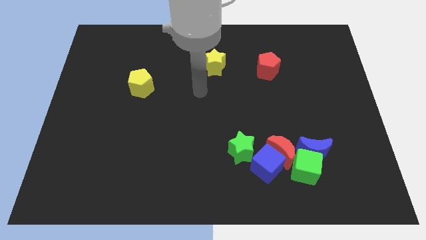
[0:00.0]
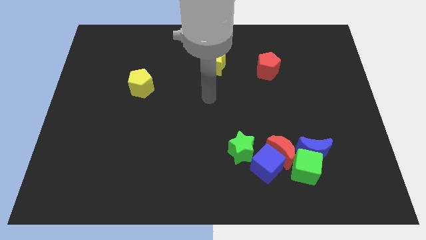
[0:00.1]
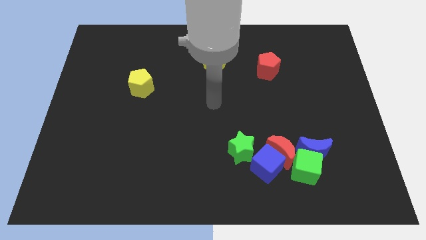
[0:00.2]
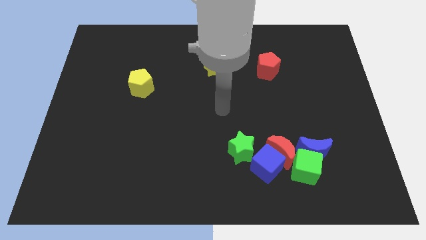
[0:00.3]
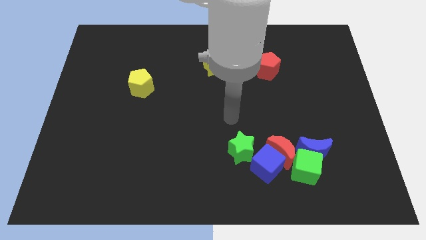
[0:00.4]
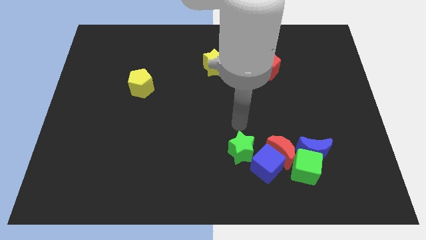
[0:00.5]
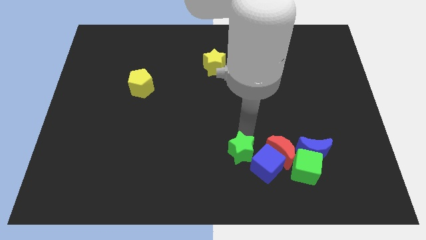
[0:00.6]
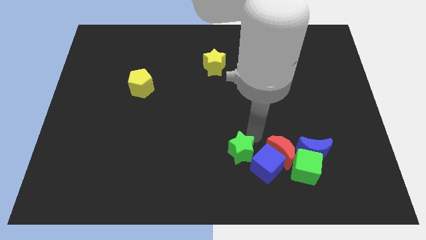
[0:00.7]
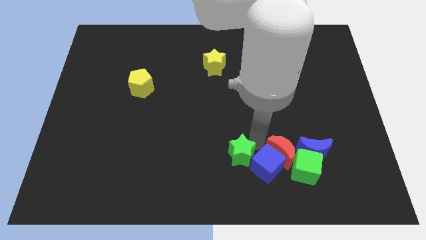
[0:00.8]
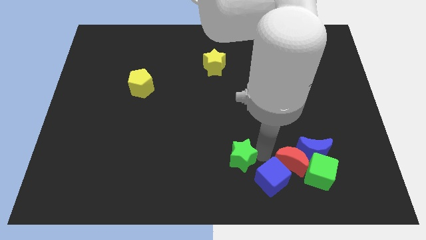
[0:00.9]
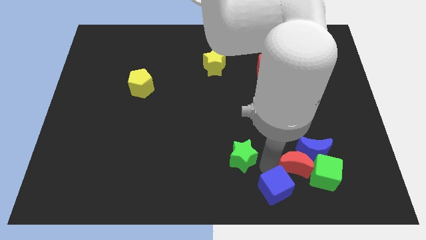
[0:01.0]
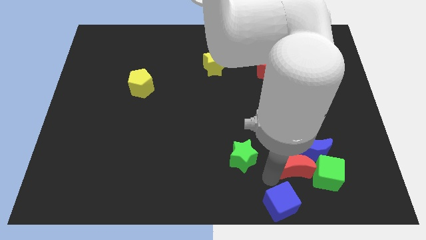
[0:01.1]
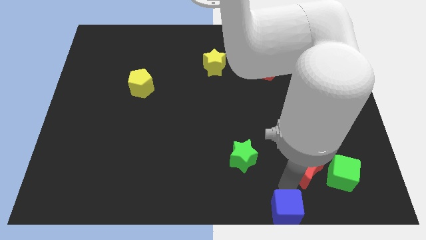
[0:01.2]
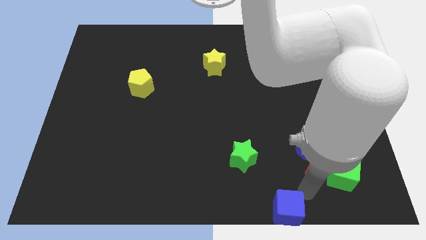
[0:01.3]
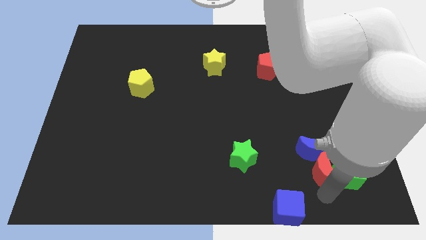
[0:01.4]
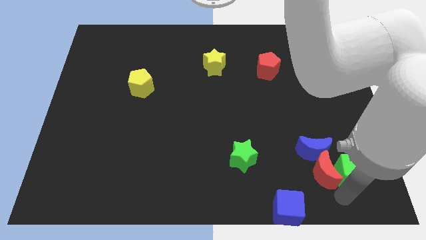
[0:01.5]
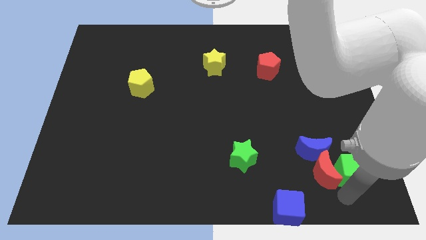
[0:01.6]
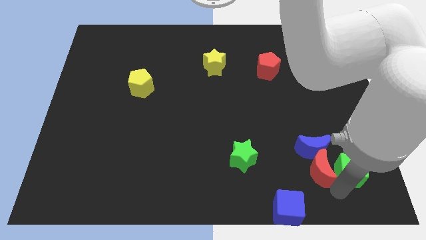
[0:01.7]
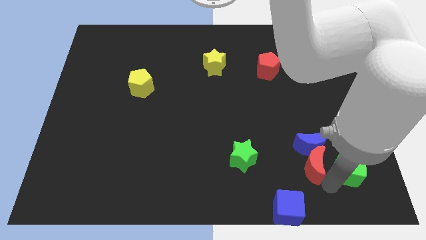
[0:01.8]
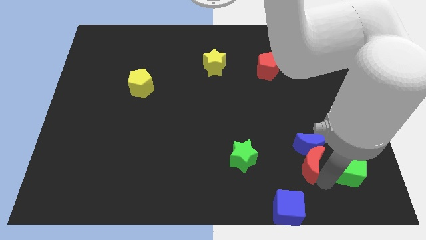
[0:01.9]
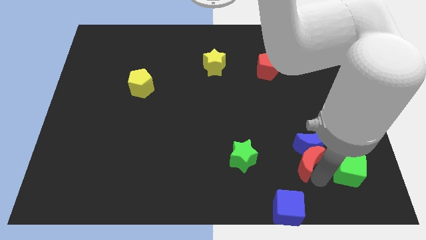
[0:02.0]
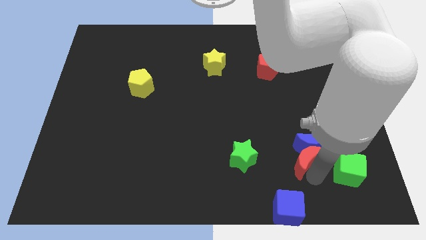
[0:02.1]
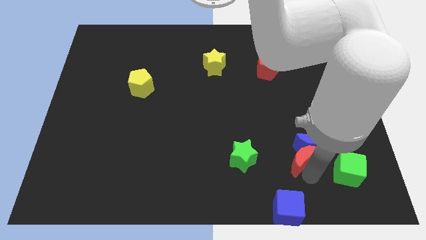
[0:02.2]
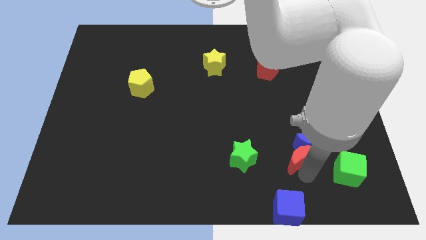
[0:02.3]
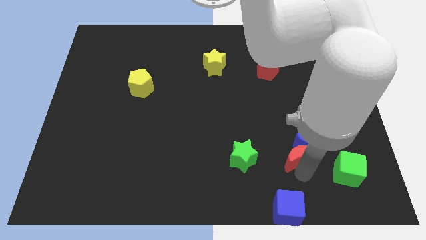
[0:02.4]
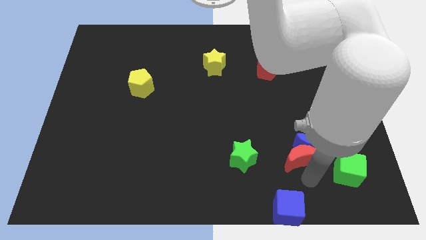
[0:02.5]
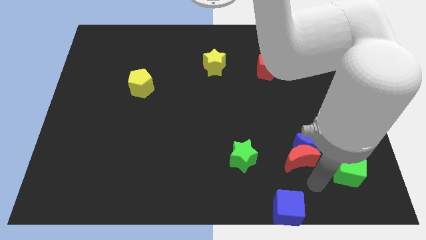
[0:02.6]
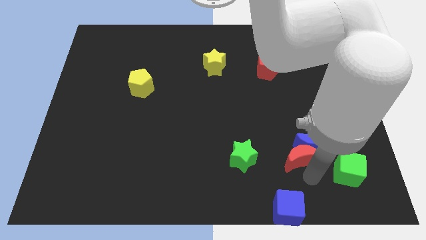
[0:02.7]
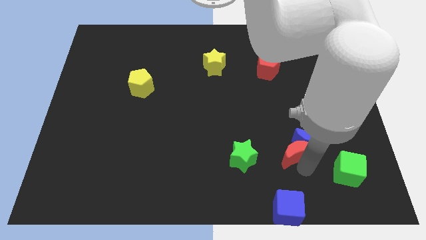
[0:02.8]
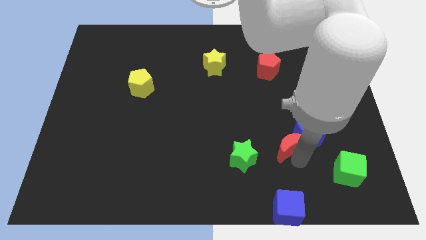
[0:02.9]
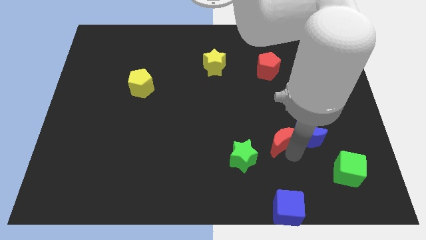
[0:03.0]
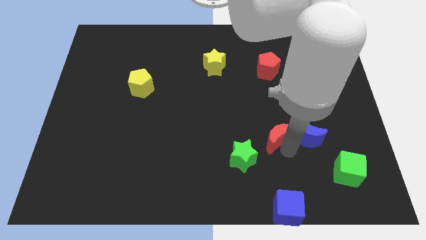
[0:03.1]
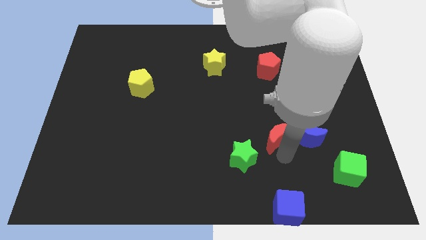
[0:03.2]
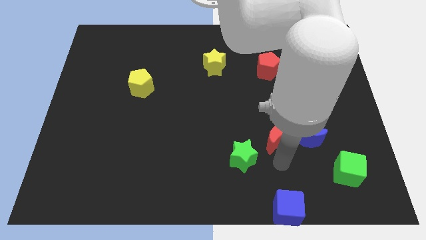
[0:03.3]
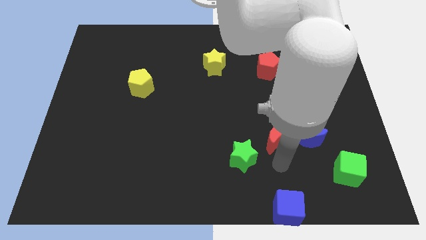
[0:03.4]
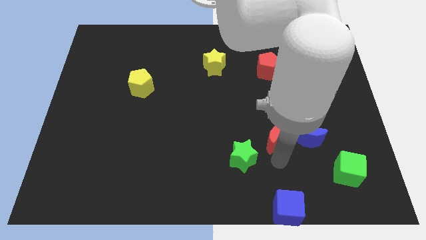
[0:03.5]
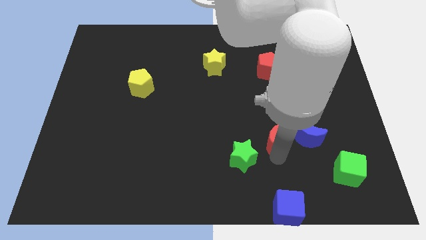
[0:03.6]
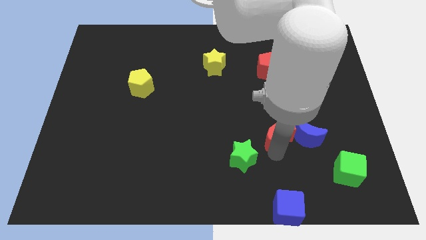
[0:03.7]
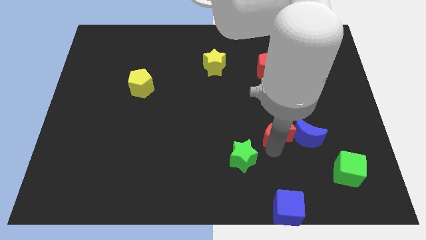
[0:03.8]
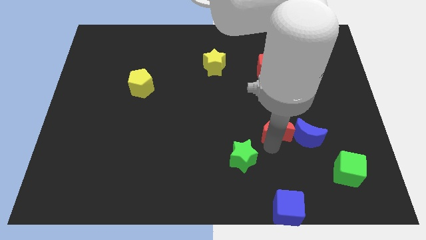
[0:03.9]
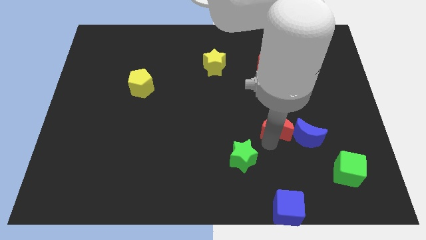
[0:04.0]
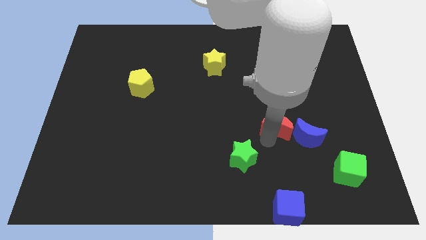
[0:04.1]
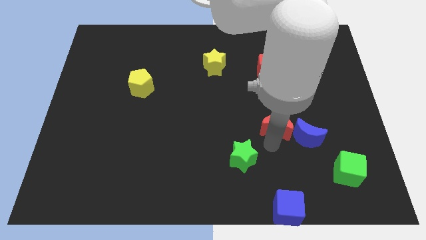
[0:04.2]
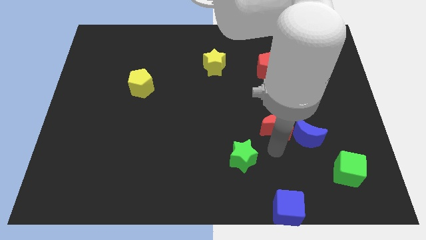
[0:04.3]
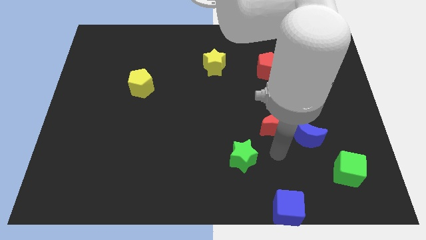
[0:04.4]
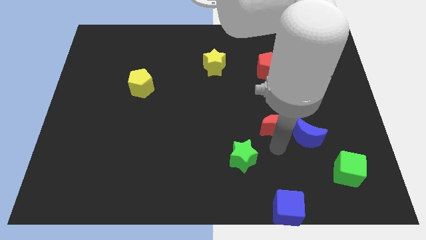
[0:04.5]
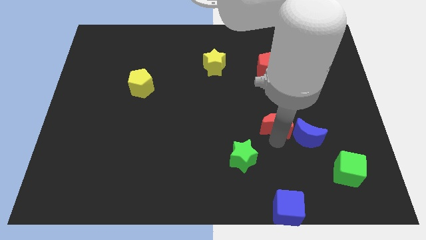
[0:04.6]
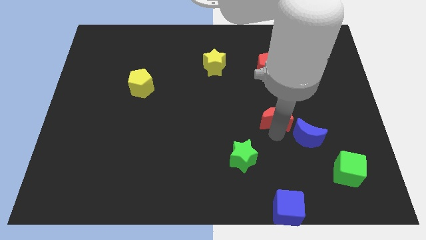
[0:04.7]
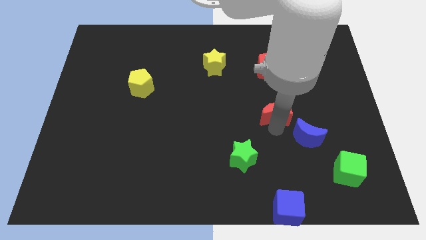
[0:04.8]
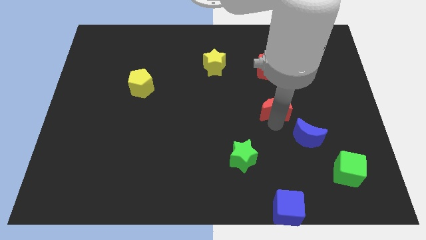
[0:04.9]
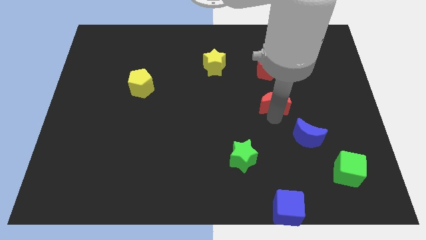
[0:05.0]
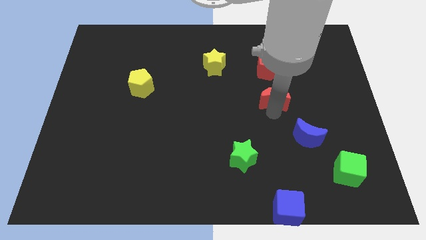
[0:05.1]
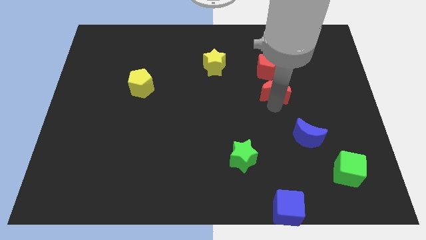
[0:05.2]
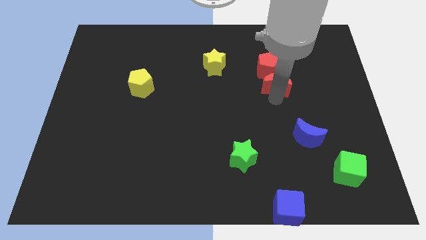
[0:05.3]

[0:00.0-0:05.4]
move the red moon close to the red pentagon

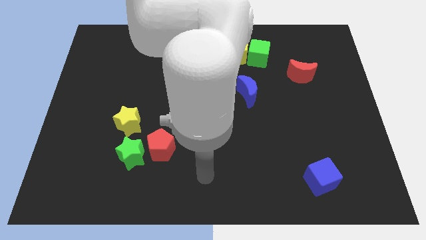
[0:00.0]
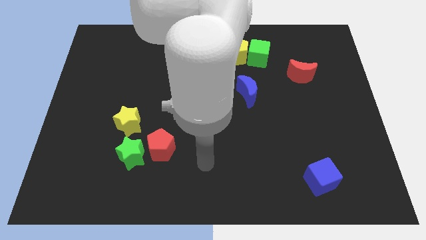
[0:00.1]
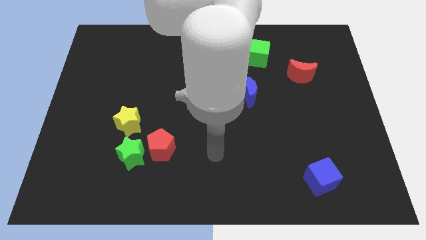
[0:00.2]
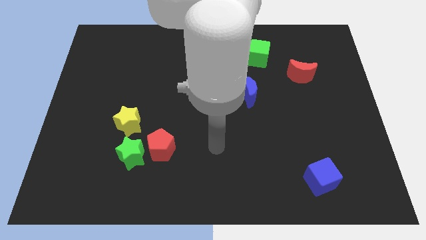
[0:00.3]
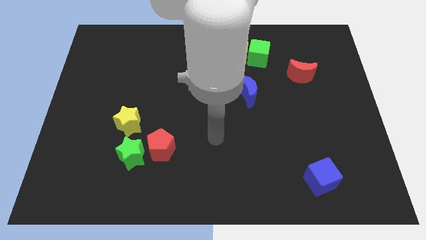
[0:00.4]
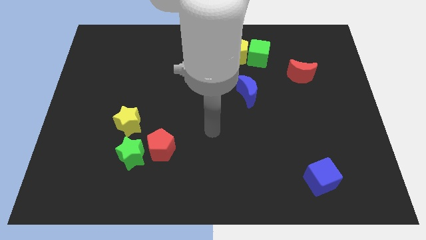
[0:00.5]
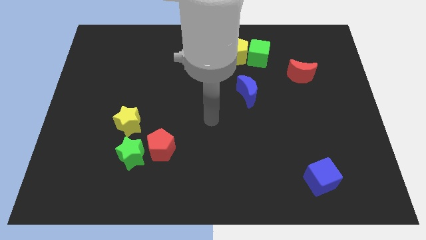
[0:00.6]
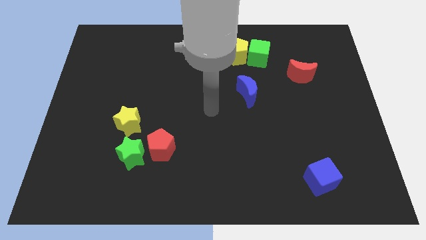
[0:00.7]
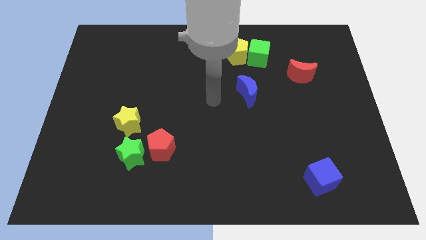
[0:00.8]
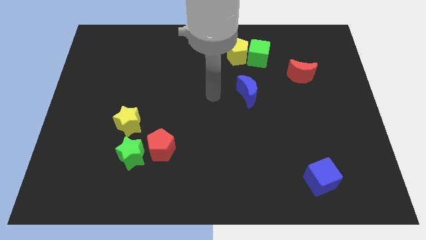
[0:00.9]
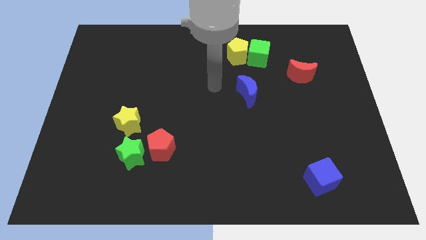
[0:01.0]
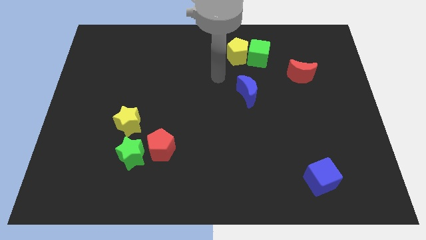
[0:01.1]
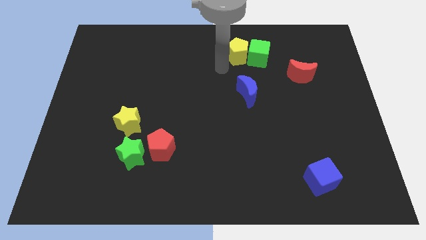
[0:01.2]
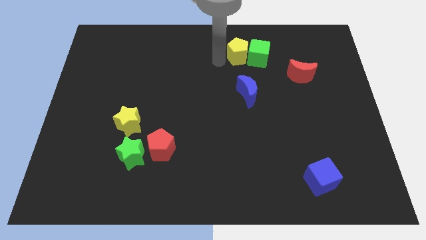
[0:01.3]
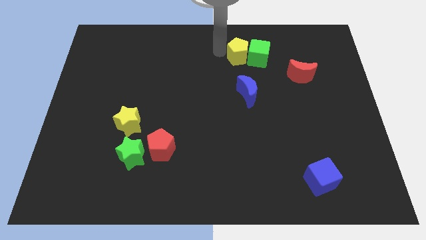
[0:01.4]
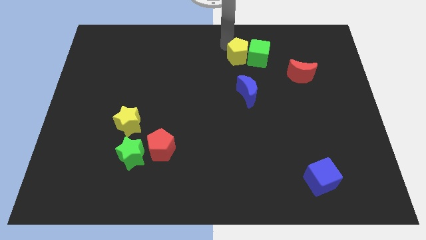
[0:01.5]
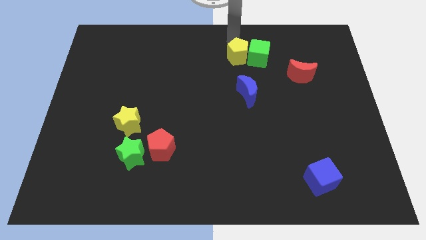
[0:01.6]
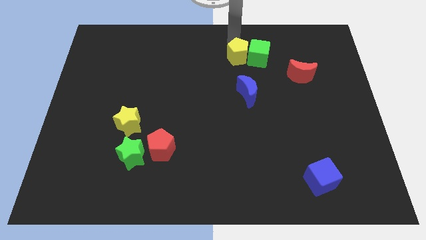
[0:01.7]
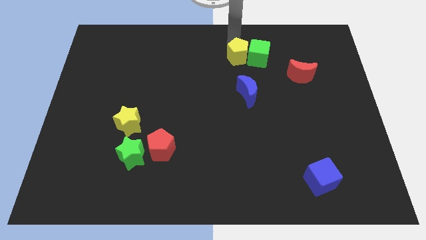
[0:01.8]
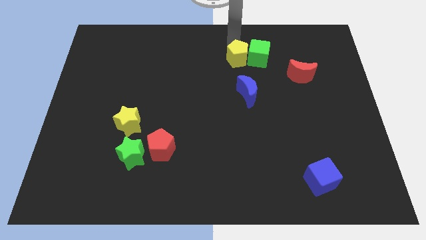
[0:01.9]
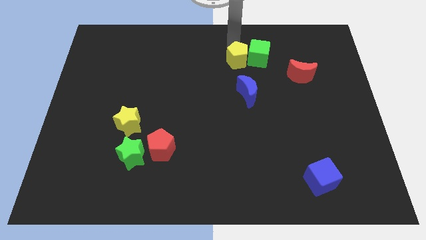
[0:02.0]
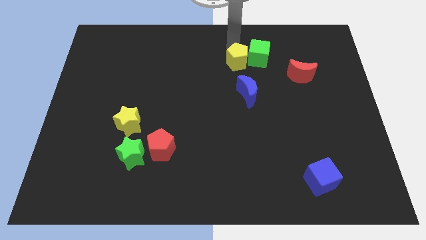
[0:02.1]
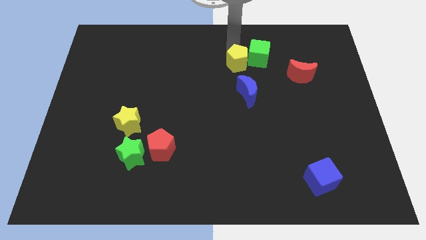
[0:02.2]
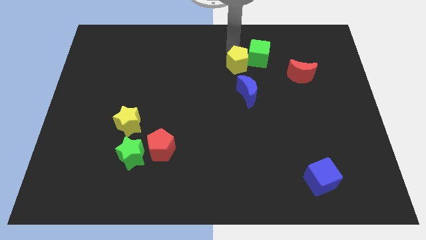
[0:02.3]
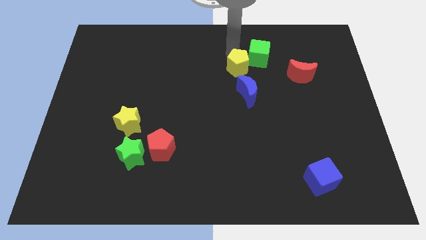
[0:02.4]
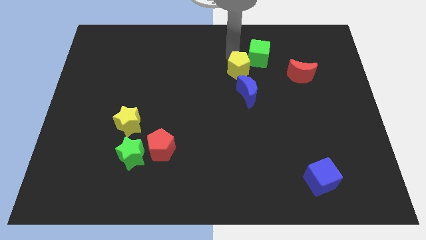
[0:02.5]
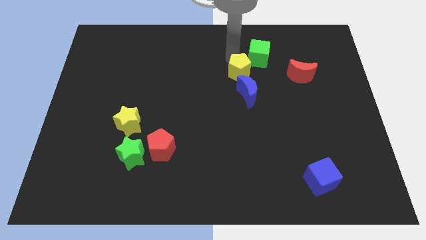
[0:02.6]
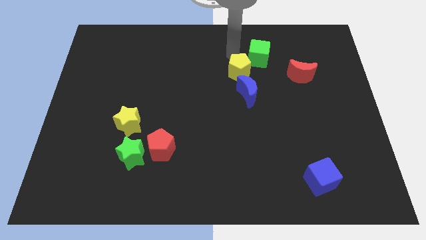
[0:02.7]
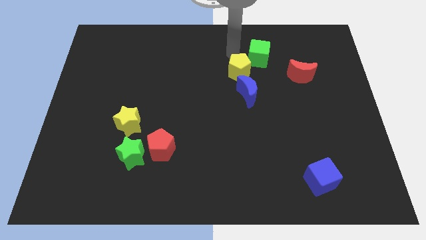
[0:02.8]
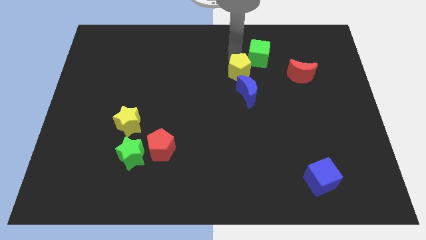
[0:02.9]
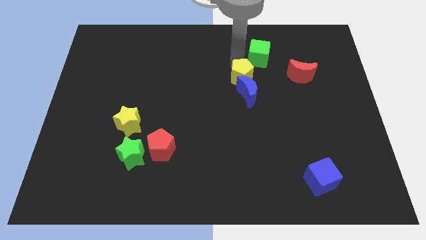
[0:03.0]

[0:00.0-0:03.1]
put the yellow pentagon towards the blue moon
